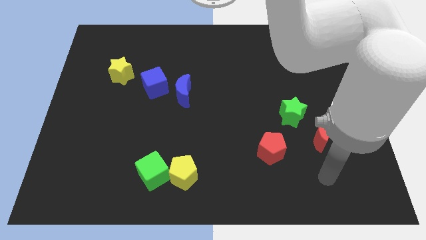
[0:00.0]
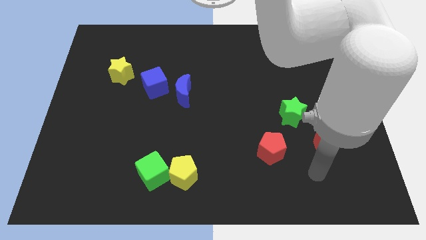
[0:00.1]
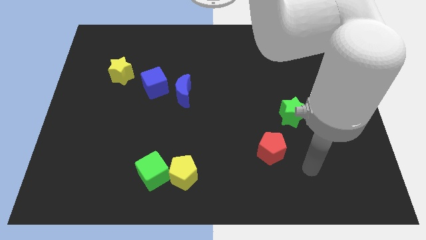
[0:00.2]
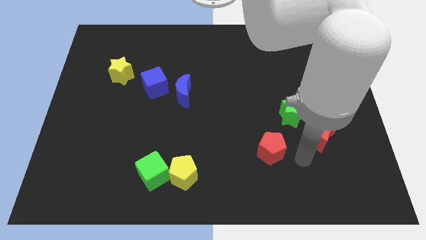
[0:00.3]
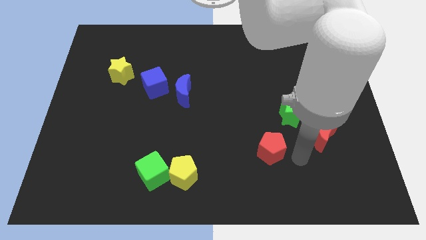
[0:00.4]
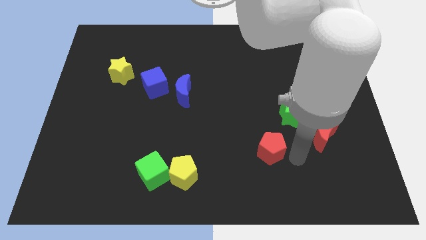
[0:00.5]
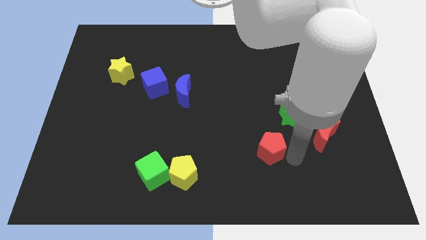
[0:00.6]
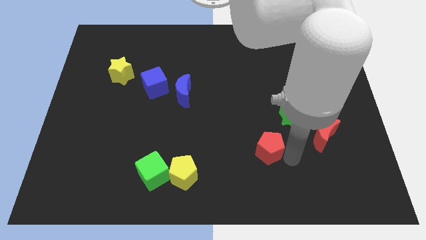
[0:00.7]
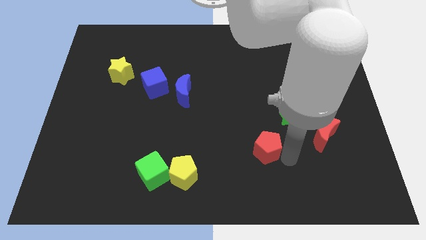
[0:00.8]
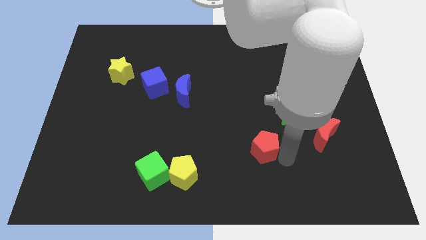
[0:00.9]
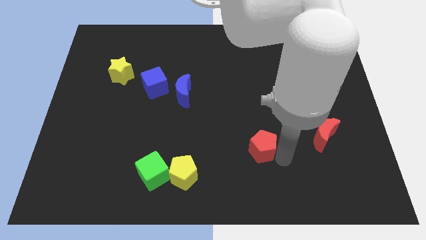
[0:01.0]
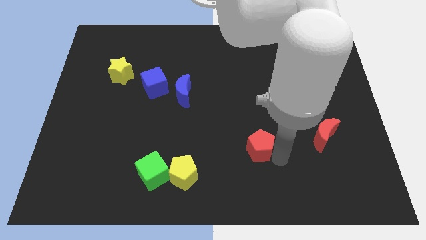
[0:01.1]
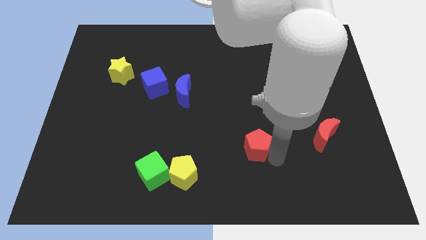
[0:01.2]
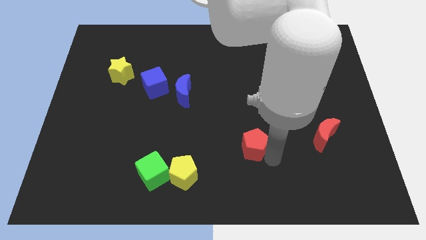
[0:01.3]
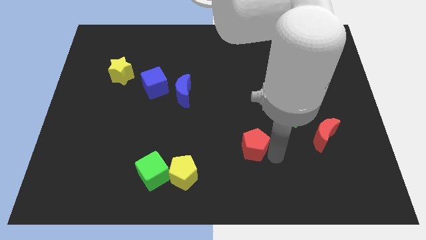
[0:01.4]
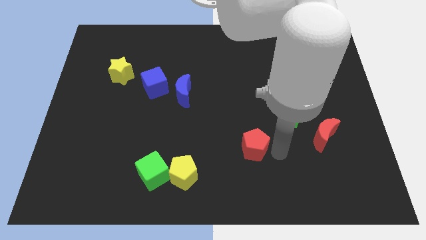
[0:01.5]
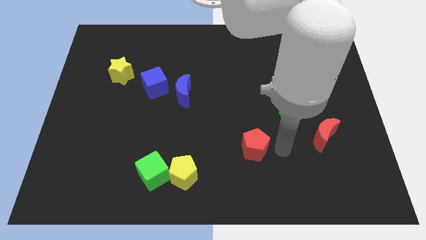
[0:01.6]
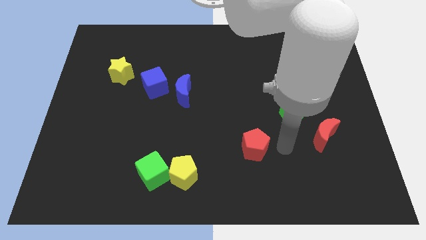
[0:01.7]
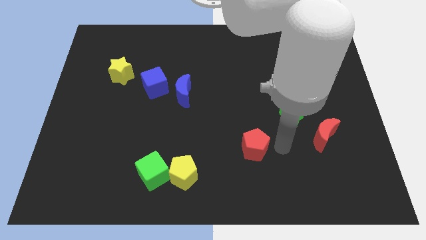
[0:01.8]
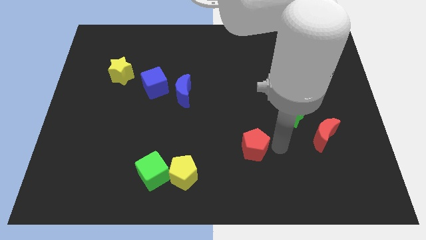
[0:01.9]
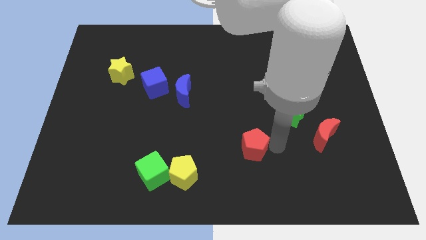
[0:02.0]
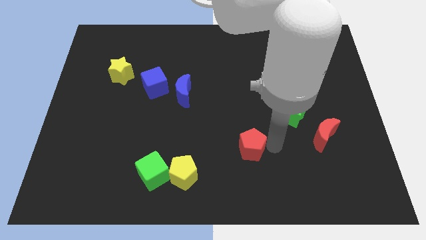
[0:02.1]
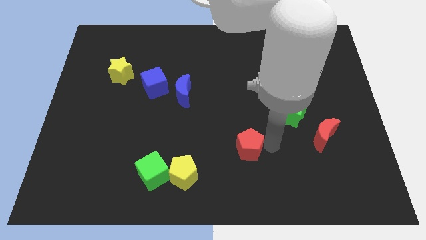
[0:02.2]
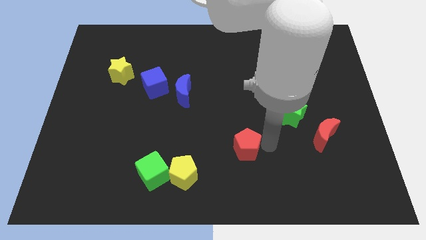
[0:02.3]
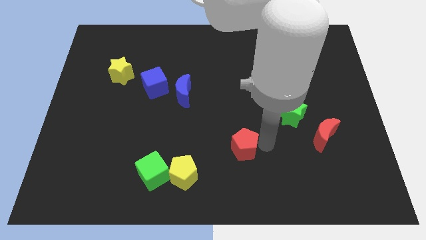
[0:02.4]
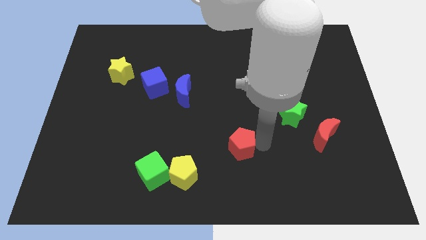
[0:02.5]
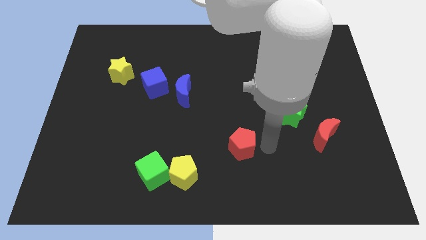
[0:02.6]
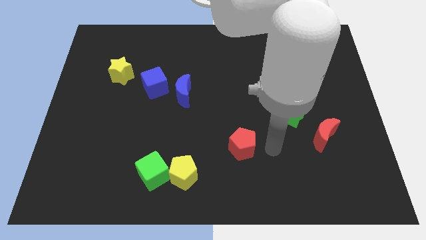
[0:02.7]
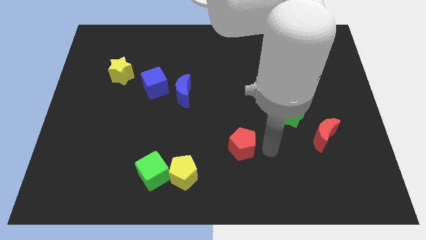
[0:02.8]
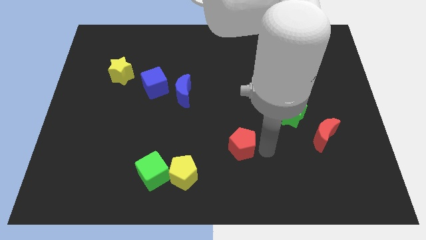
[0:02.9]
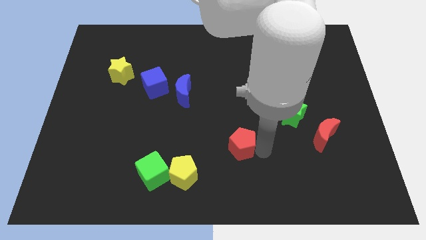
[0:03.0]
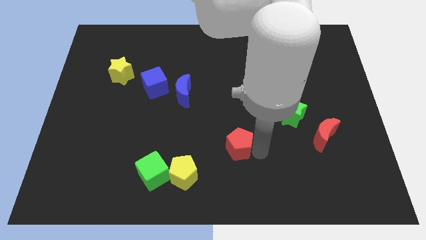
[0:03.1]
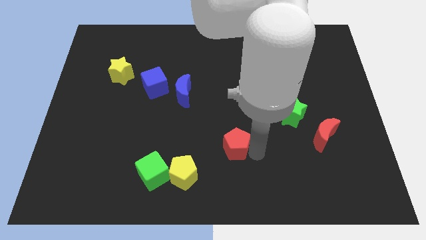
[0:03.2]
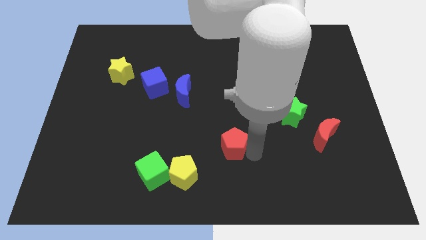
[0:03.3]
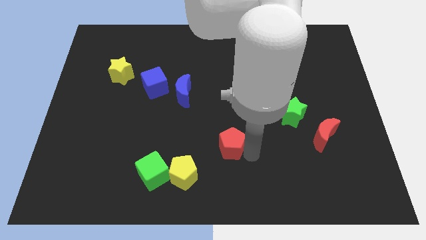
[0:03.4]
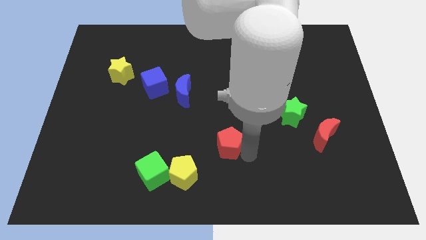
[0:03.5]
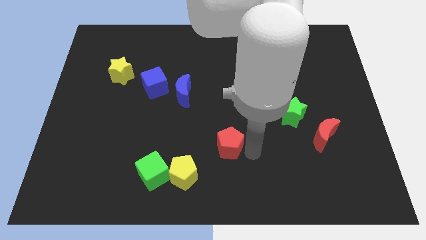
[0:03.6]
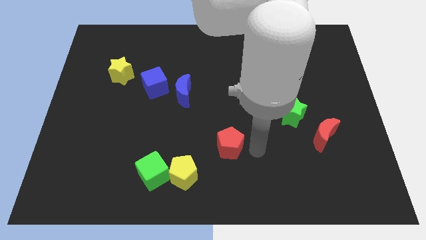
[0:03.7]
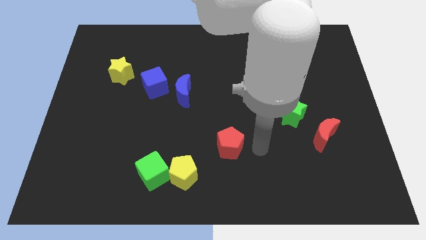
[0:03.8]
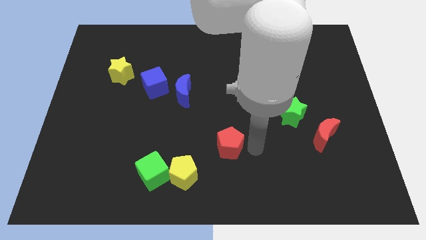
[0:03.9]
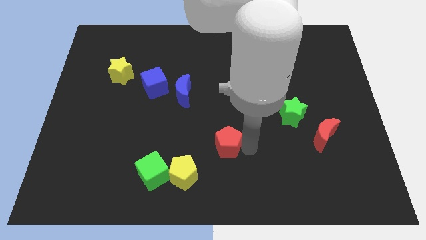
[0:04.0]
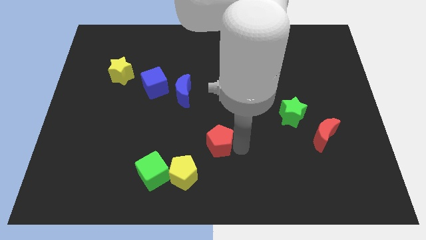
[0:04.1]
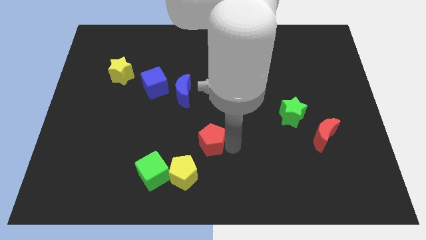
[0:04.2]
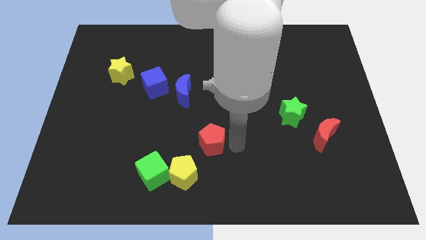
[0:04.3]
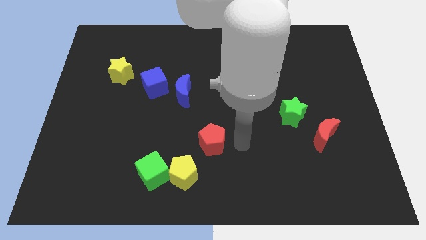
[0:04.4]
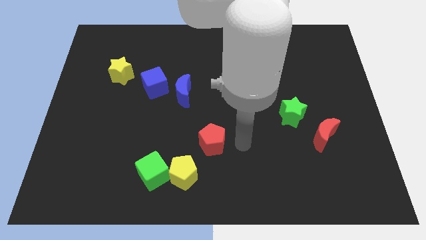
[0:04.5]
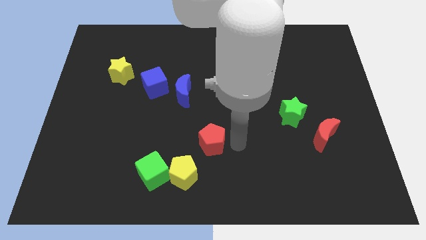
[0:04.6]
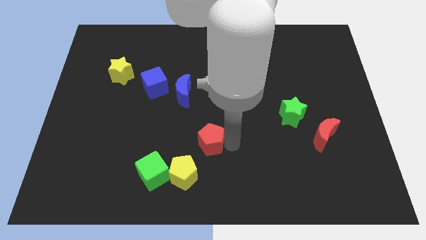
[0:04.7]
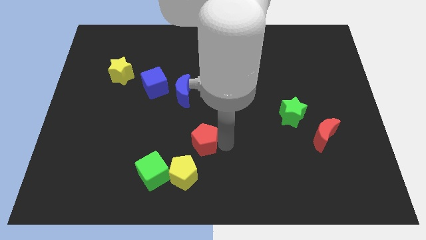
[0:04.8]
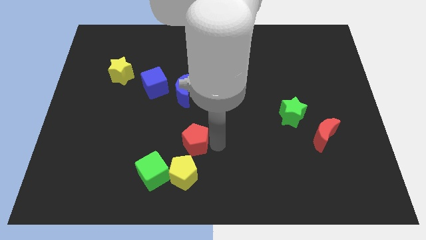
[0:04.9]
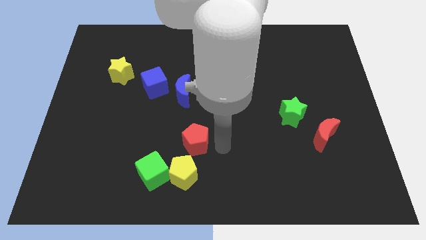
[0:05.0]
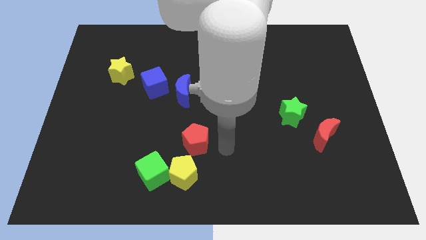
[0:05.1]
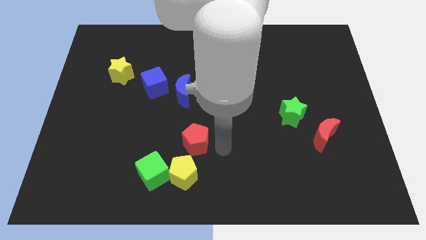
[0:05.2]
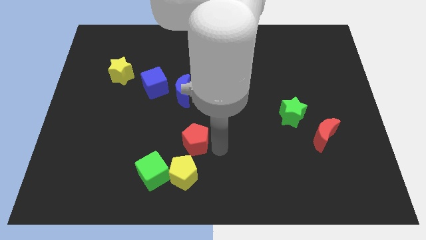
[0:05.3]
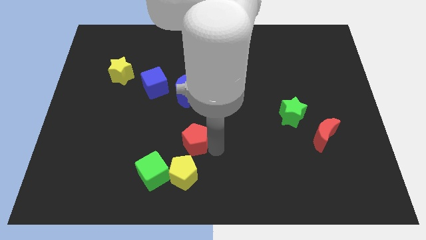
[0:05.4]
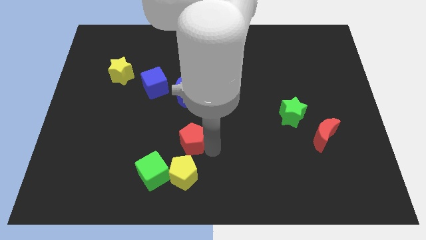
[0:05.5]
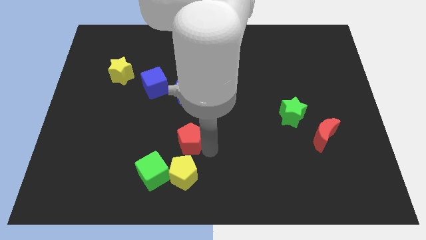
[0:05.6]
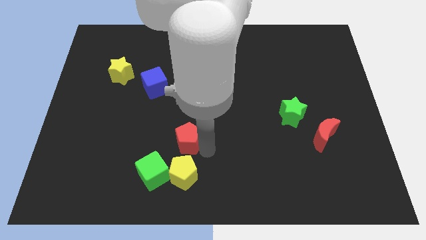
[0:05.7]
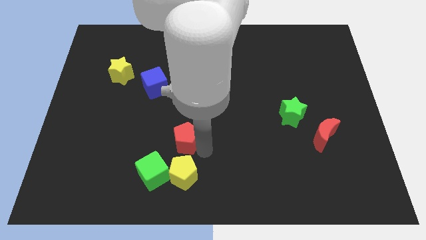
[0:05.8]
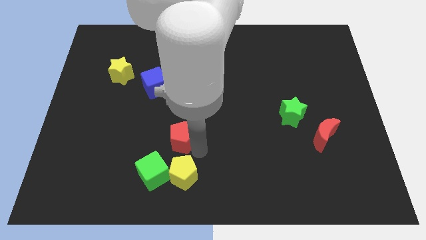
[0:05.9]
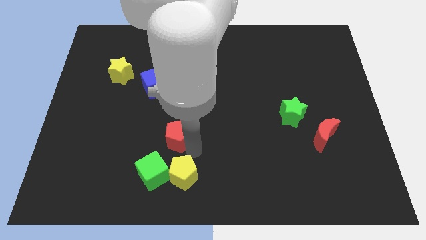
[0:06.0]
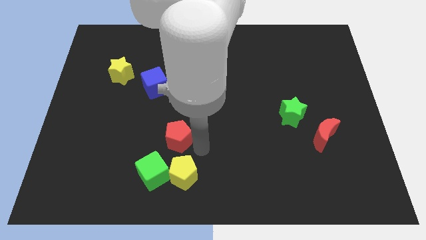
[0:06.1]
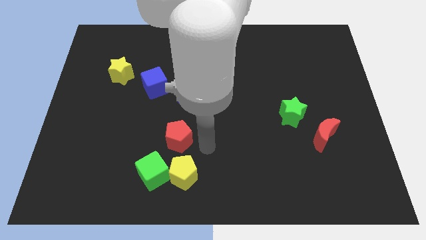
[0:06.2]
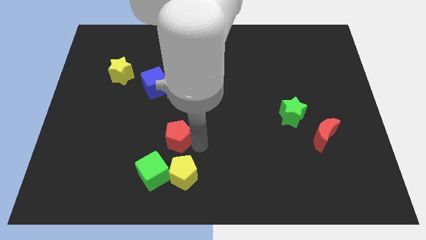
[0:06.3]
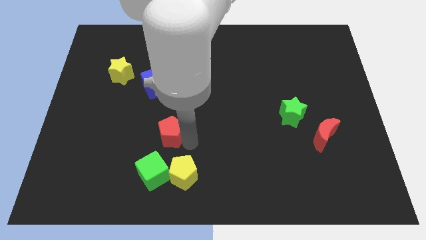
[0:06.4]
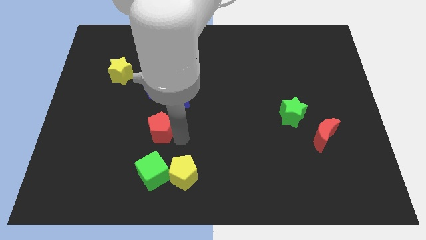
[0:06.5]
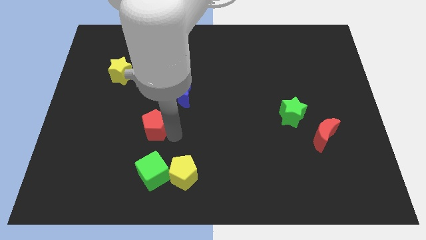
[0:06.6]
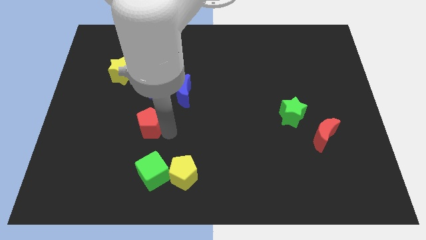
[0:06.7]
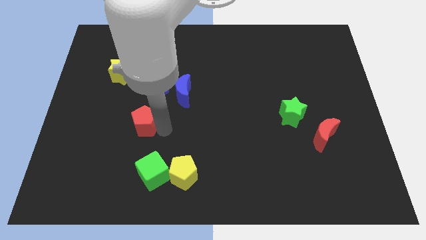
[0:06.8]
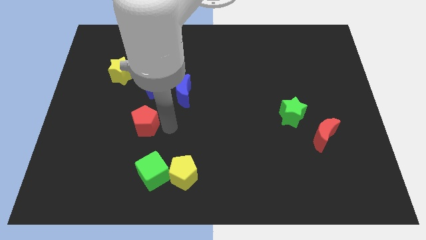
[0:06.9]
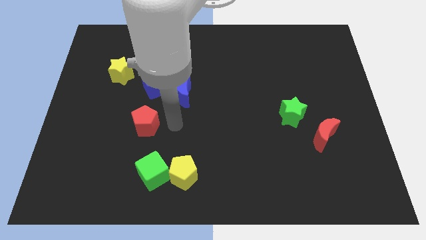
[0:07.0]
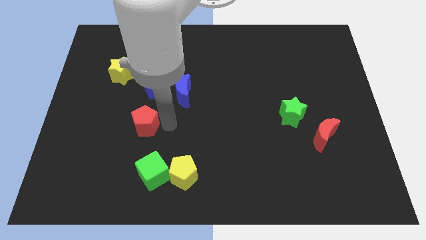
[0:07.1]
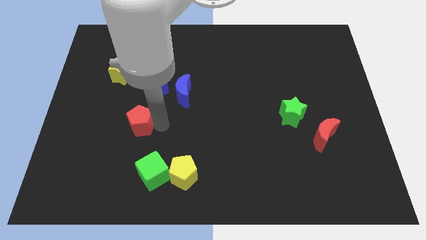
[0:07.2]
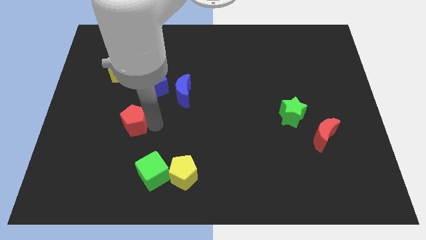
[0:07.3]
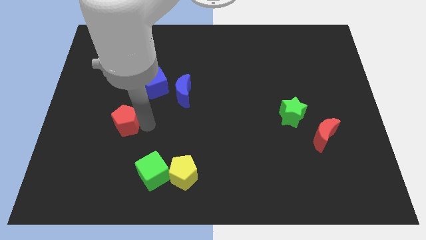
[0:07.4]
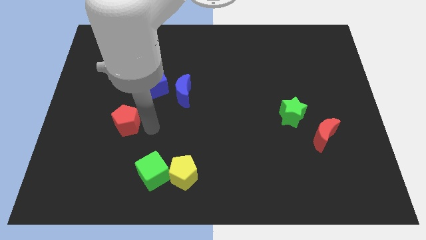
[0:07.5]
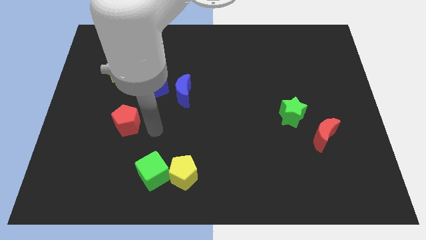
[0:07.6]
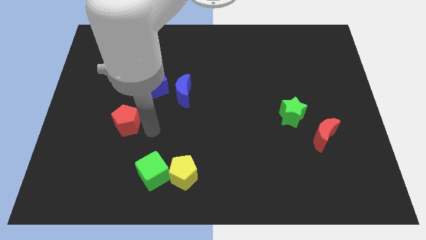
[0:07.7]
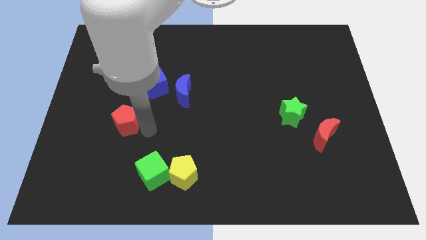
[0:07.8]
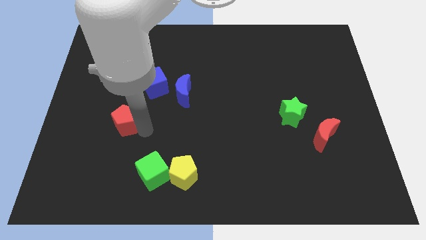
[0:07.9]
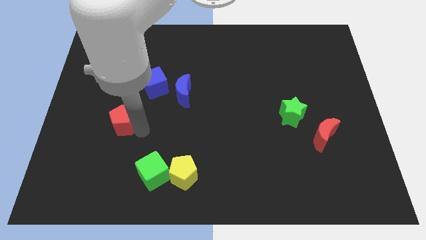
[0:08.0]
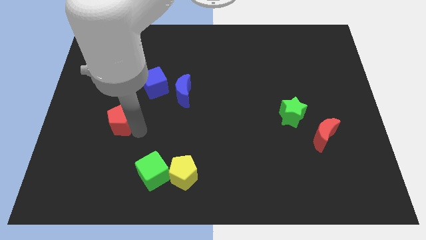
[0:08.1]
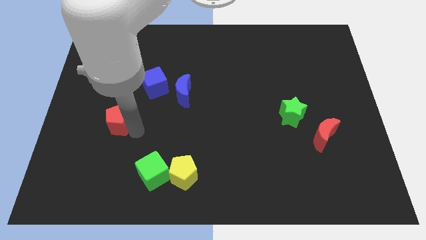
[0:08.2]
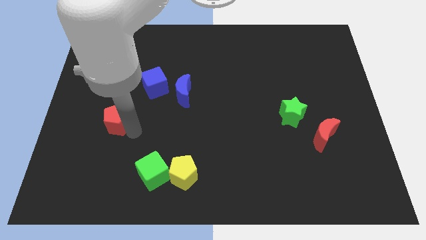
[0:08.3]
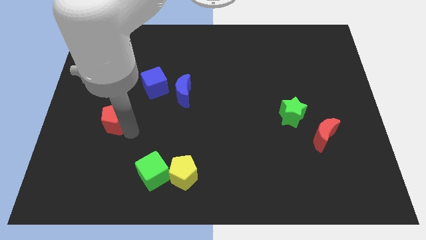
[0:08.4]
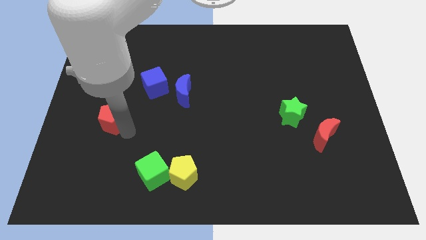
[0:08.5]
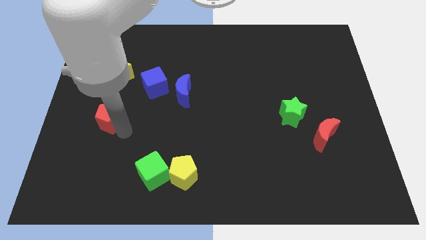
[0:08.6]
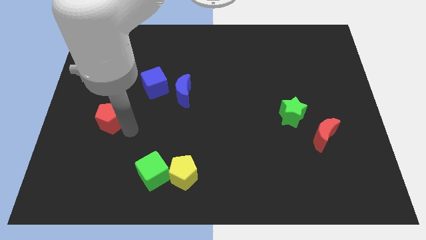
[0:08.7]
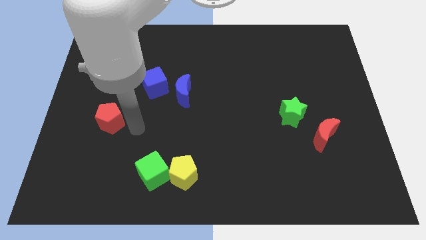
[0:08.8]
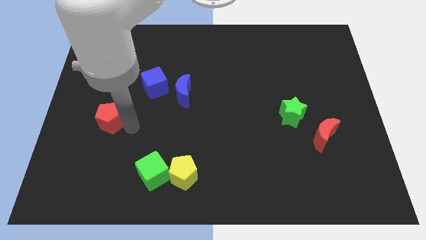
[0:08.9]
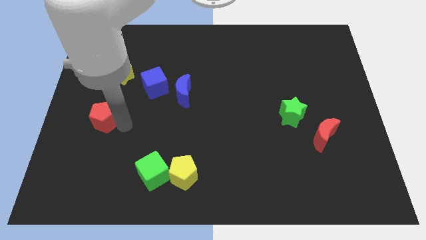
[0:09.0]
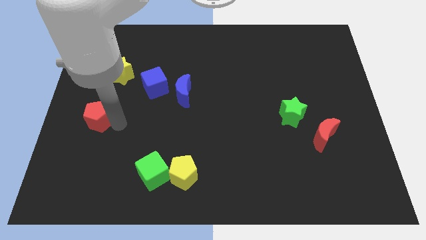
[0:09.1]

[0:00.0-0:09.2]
move the red pentagon to the center left
